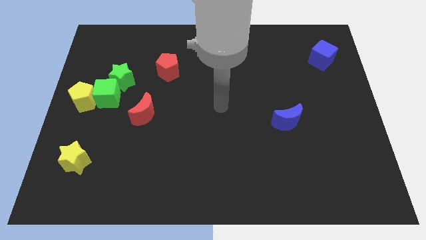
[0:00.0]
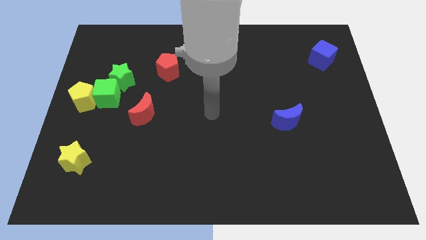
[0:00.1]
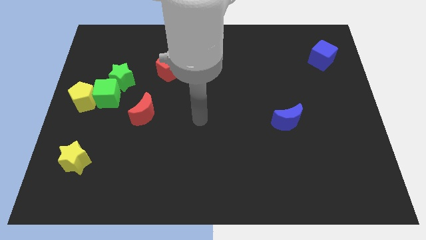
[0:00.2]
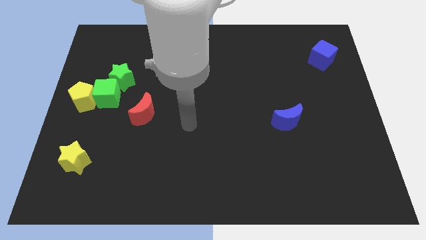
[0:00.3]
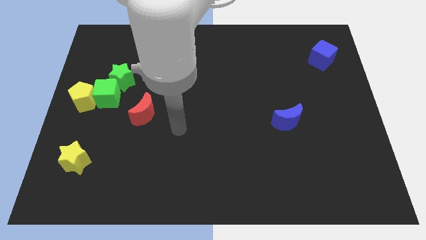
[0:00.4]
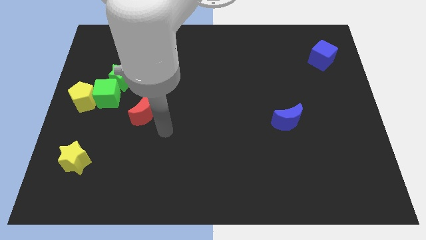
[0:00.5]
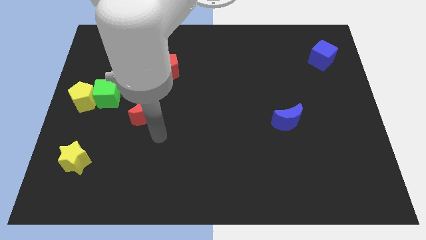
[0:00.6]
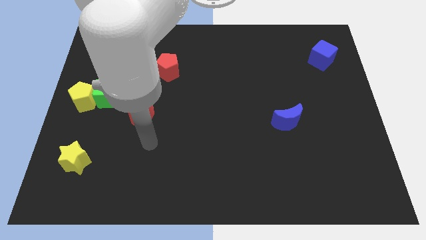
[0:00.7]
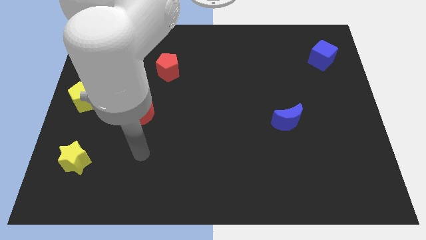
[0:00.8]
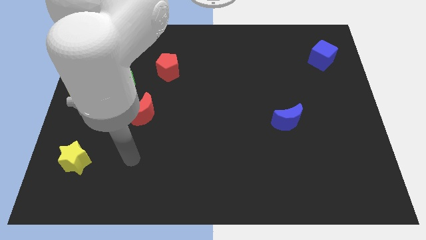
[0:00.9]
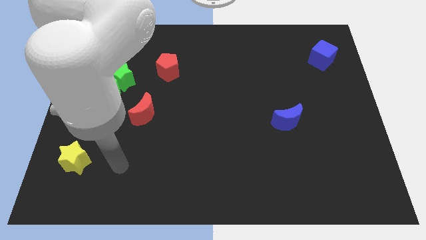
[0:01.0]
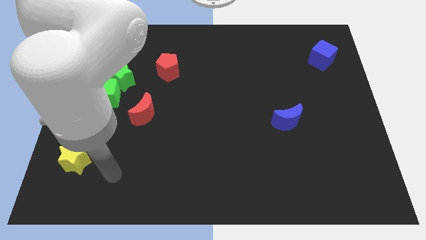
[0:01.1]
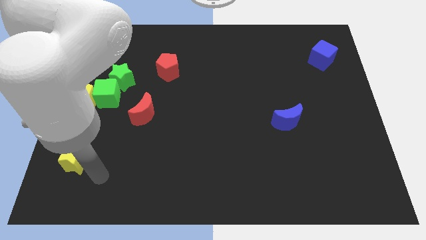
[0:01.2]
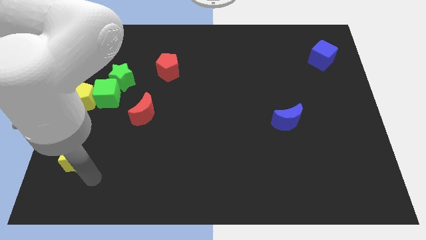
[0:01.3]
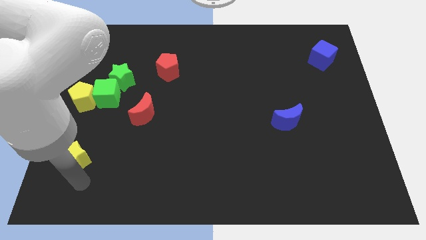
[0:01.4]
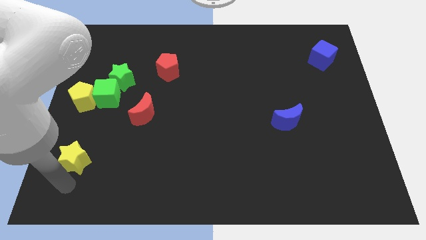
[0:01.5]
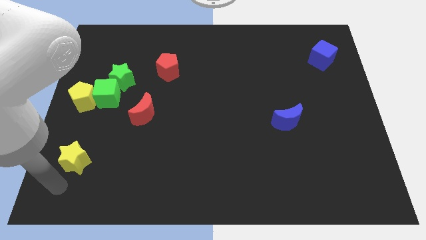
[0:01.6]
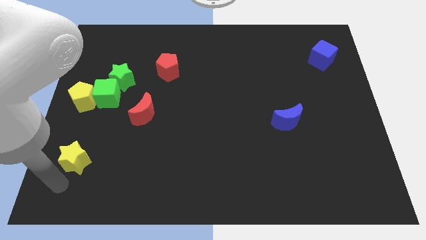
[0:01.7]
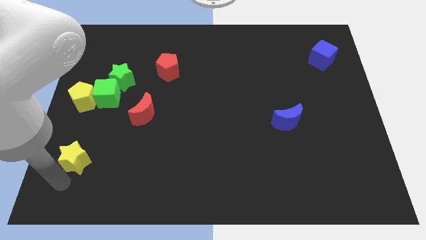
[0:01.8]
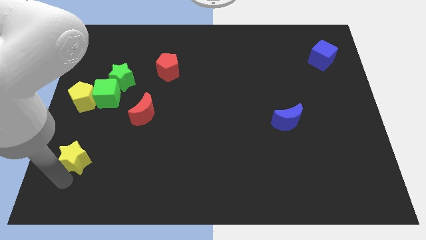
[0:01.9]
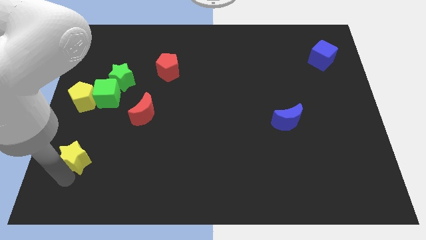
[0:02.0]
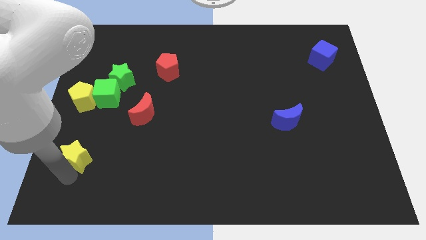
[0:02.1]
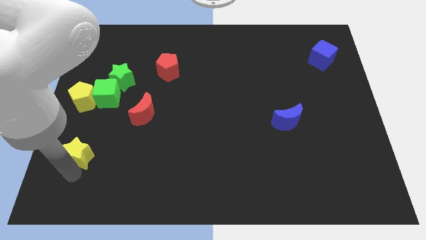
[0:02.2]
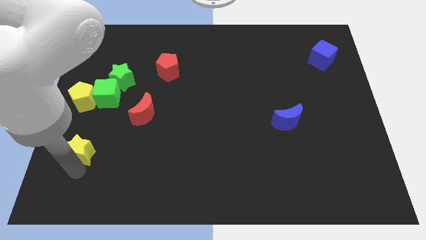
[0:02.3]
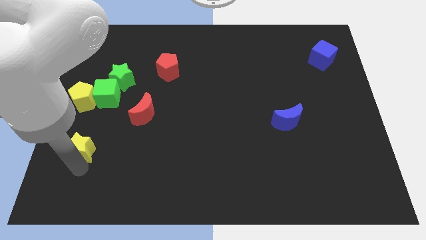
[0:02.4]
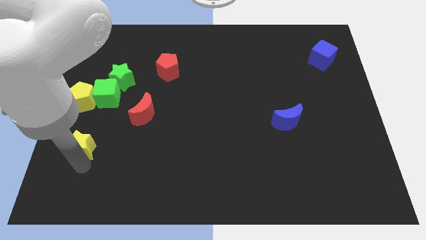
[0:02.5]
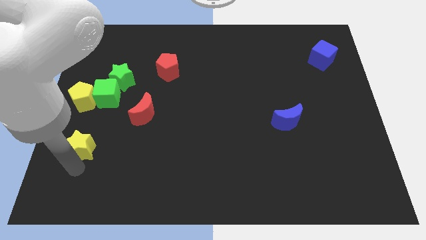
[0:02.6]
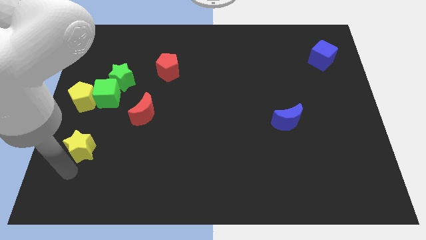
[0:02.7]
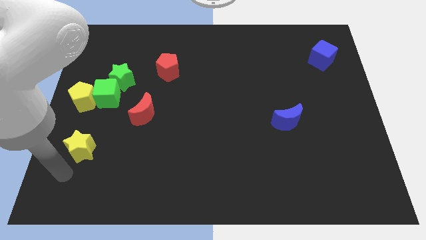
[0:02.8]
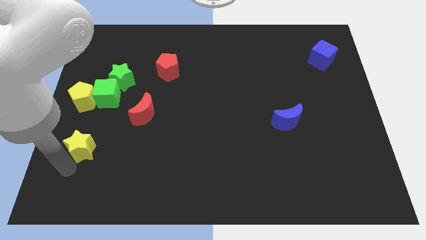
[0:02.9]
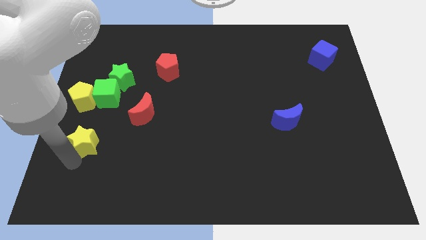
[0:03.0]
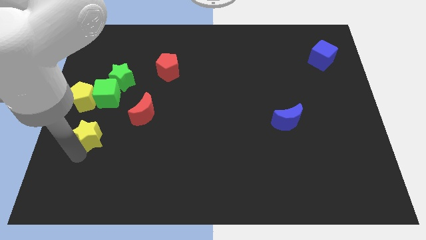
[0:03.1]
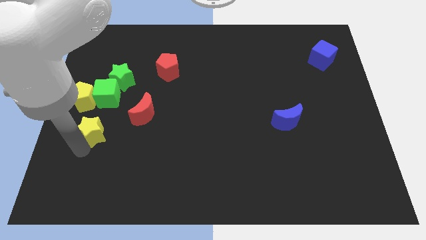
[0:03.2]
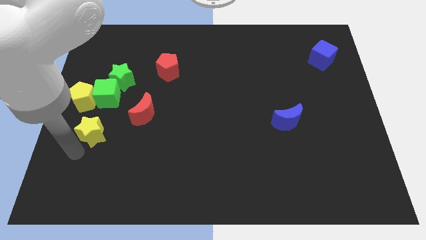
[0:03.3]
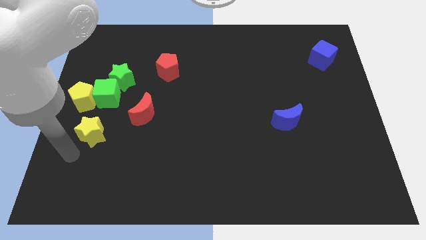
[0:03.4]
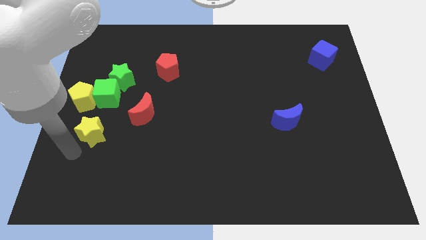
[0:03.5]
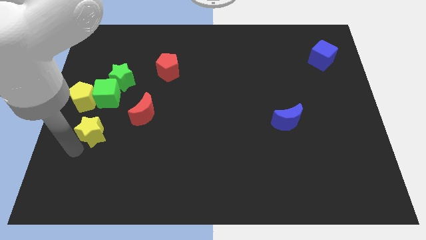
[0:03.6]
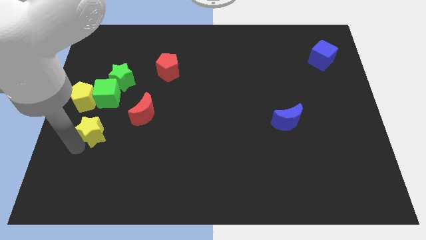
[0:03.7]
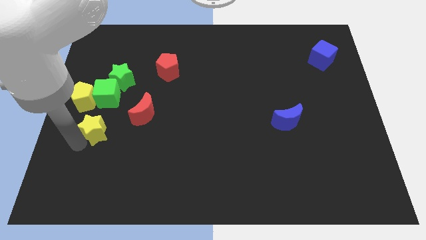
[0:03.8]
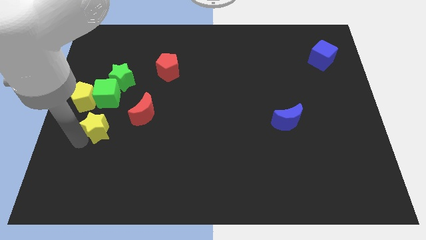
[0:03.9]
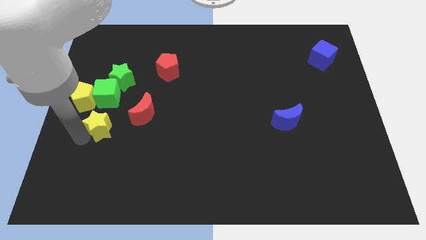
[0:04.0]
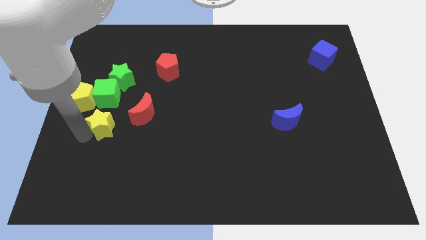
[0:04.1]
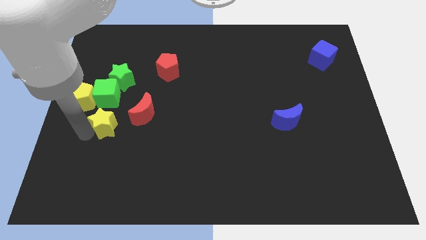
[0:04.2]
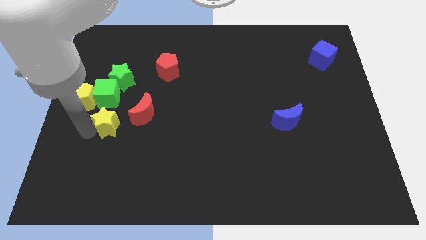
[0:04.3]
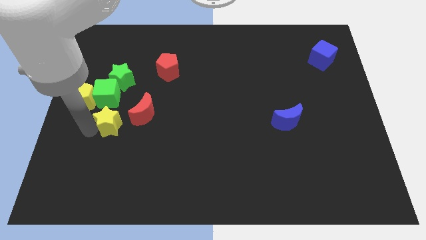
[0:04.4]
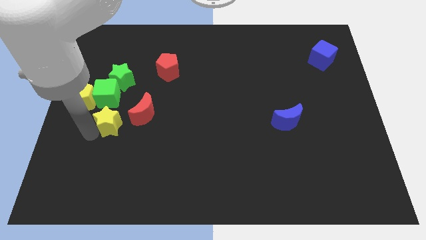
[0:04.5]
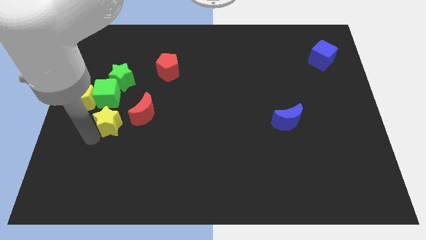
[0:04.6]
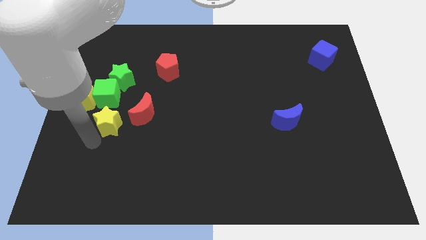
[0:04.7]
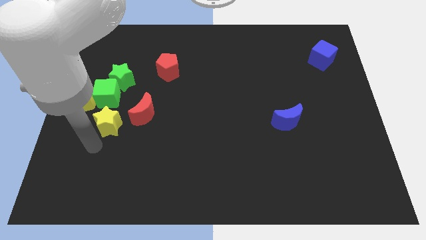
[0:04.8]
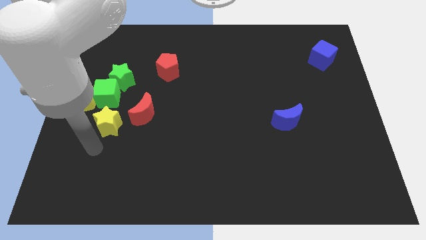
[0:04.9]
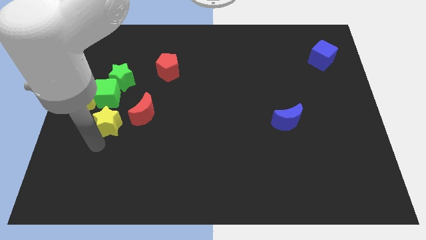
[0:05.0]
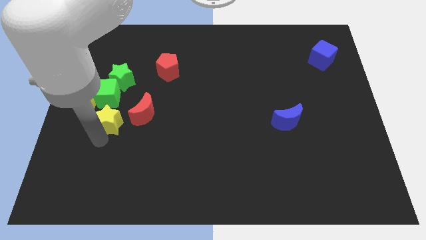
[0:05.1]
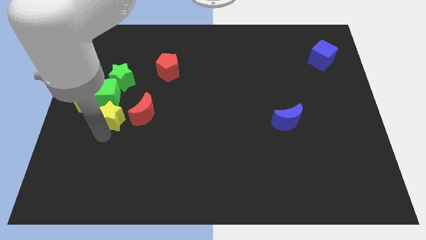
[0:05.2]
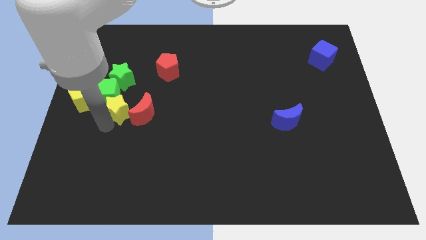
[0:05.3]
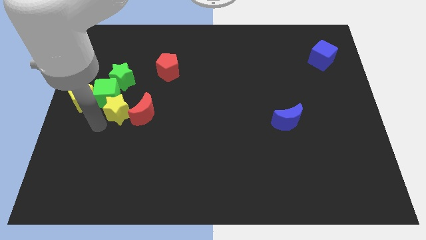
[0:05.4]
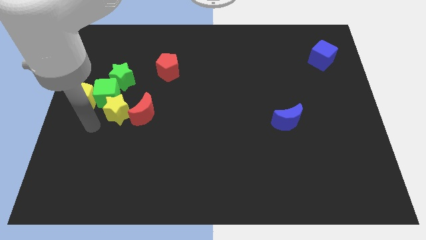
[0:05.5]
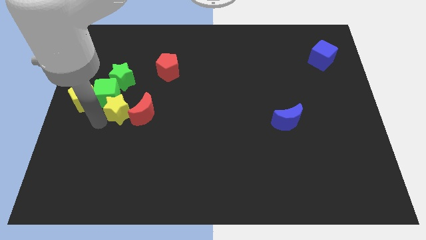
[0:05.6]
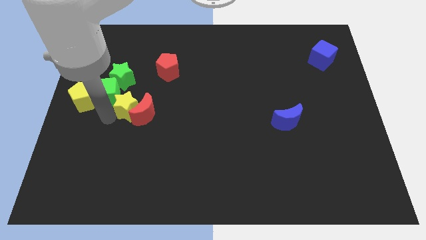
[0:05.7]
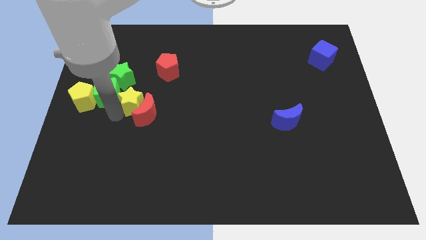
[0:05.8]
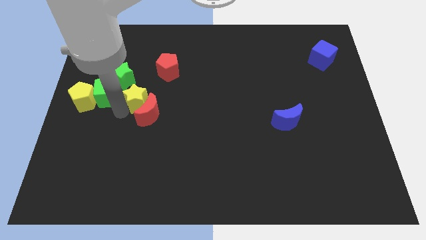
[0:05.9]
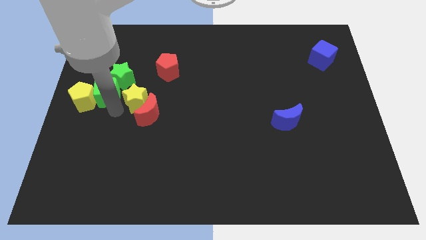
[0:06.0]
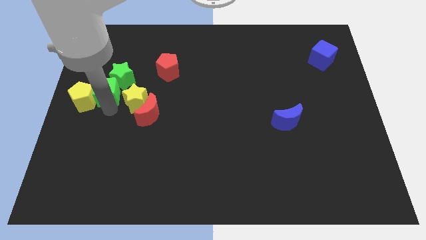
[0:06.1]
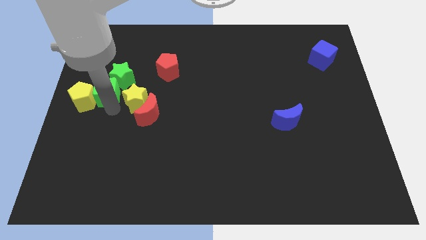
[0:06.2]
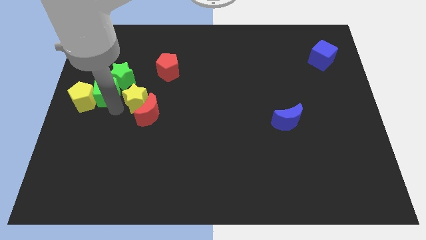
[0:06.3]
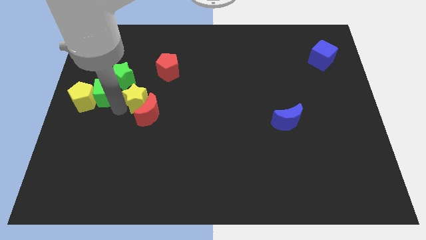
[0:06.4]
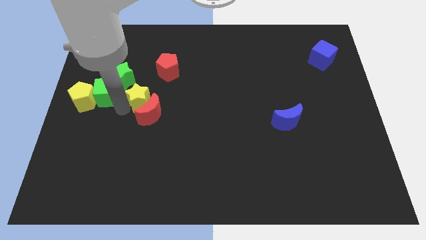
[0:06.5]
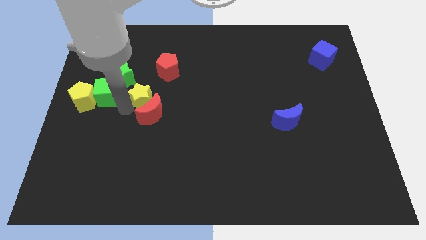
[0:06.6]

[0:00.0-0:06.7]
slide the yellow star up and right

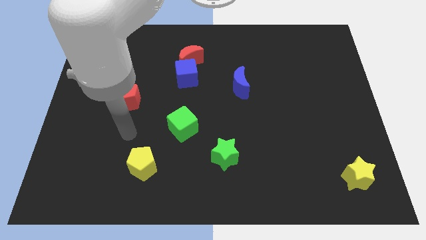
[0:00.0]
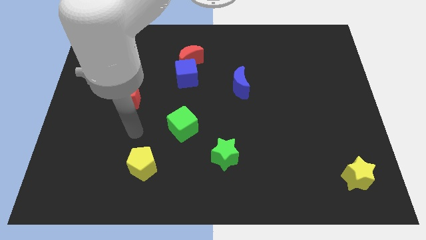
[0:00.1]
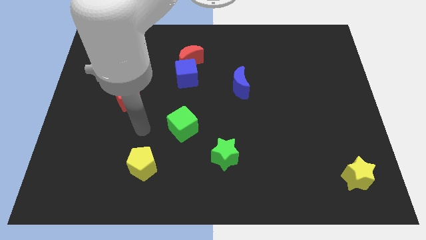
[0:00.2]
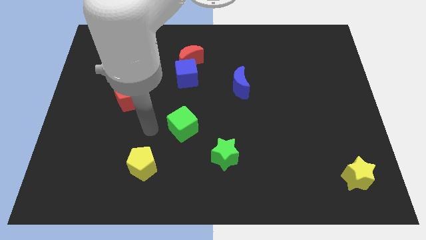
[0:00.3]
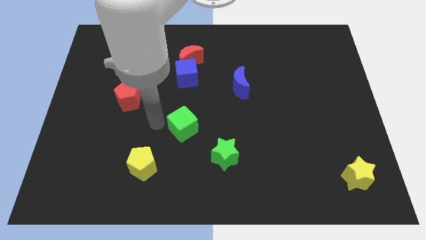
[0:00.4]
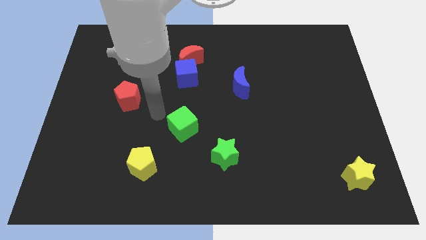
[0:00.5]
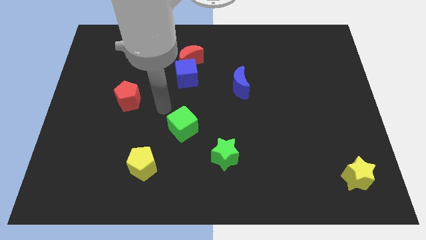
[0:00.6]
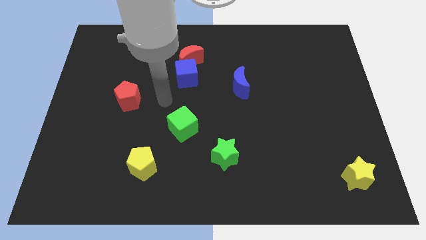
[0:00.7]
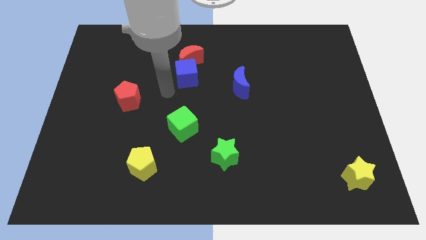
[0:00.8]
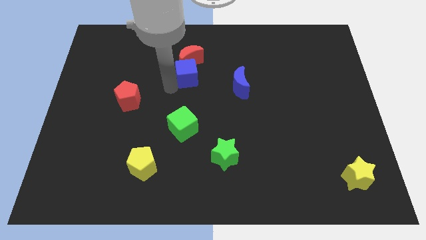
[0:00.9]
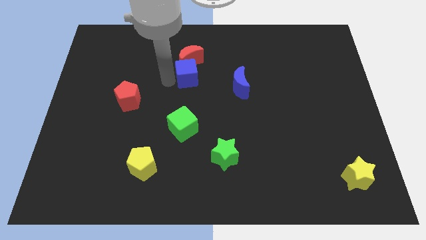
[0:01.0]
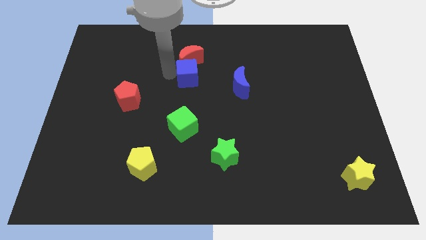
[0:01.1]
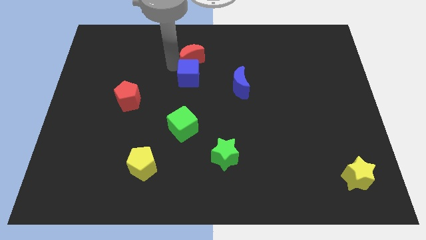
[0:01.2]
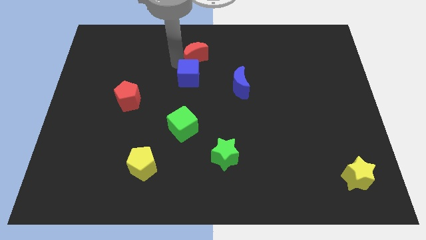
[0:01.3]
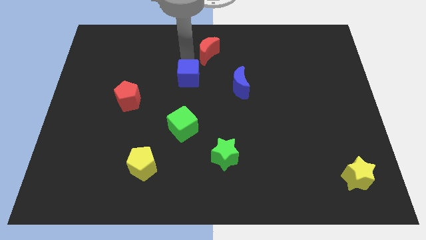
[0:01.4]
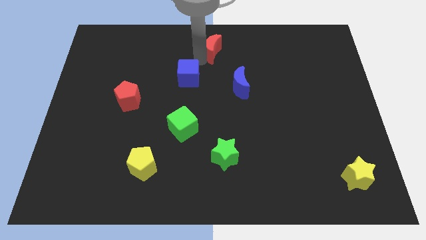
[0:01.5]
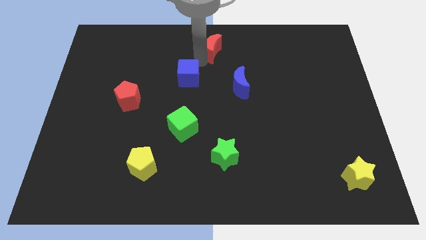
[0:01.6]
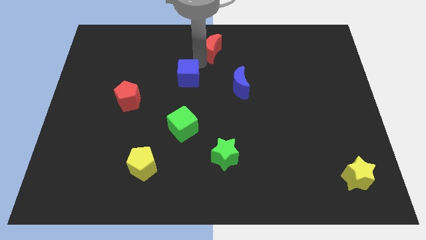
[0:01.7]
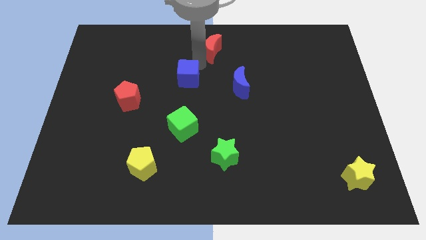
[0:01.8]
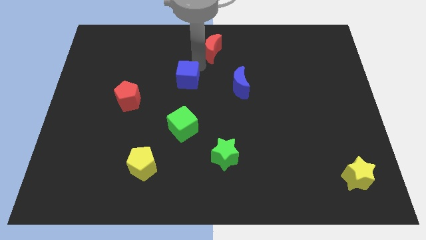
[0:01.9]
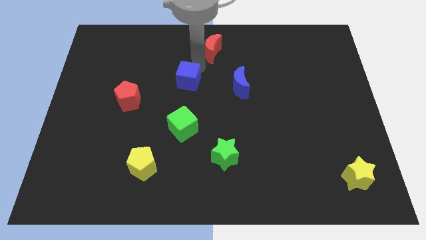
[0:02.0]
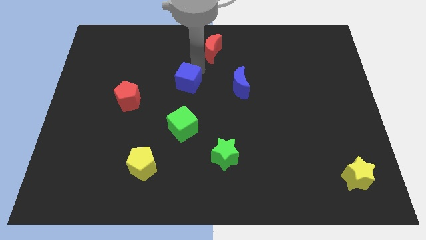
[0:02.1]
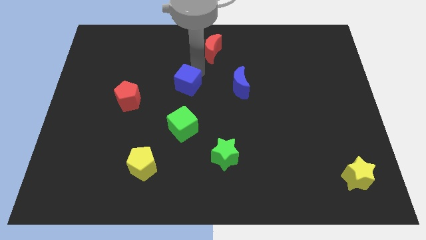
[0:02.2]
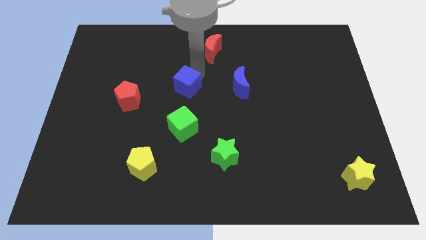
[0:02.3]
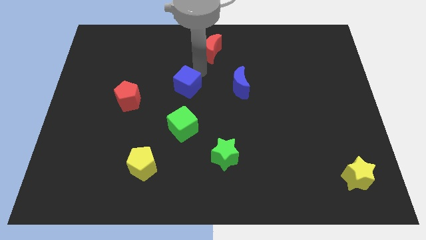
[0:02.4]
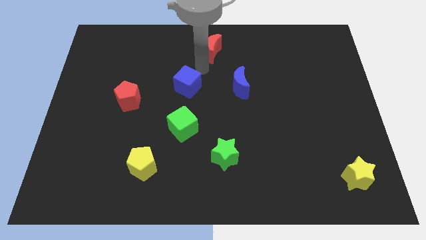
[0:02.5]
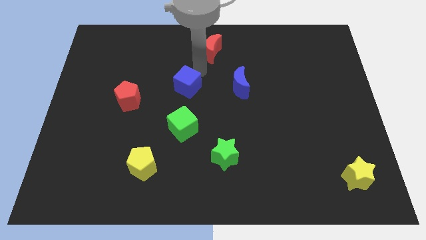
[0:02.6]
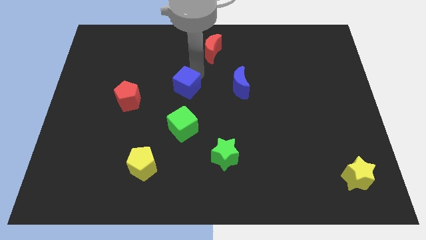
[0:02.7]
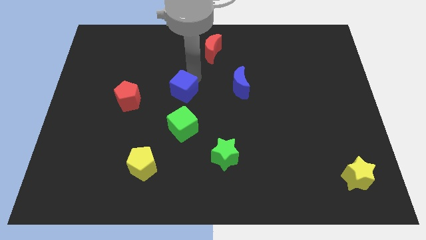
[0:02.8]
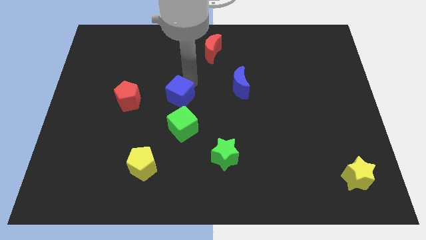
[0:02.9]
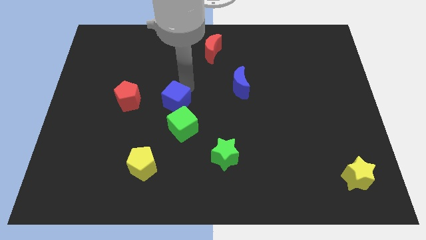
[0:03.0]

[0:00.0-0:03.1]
push the blue cube down a bit
